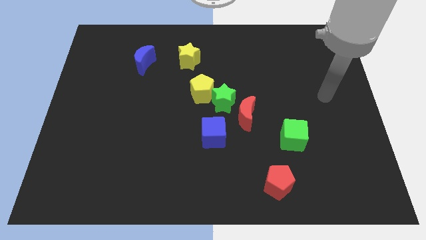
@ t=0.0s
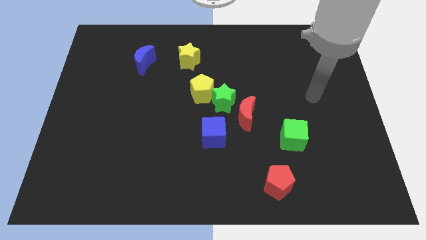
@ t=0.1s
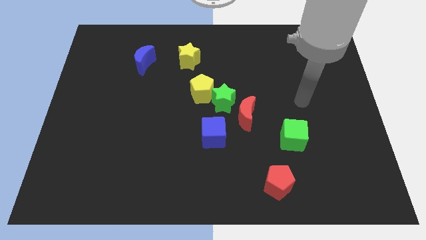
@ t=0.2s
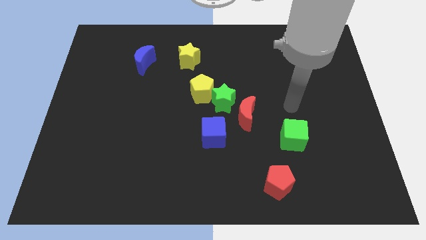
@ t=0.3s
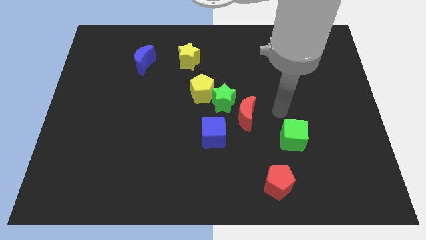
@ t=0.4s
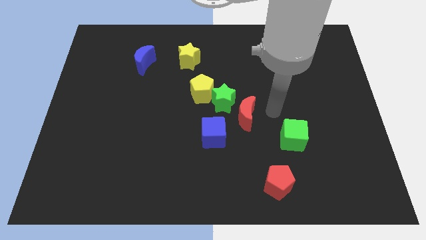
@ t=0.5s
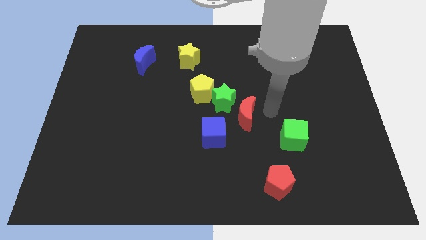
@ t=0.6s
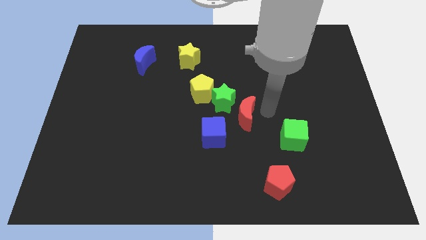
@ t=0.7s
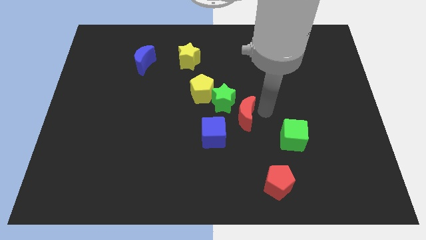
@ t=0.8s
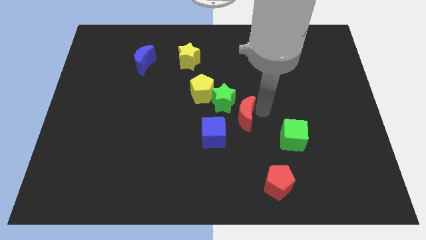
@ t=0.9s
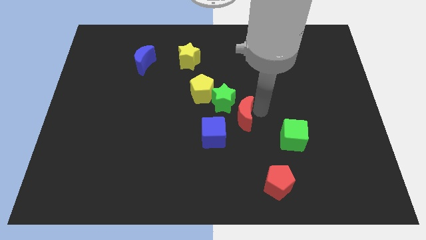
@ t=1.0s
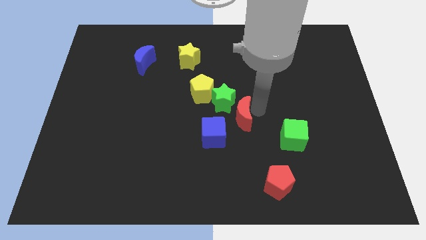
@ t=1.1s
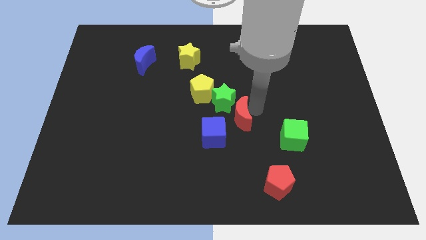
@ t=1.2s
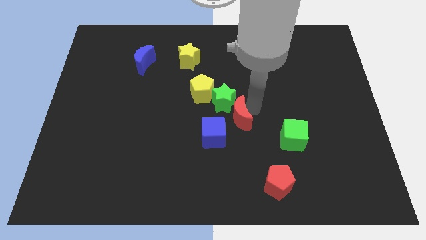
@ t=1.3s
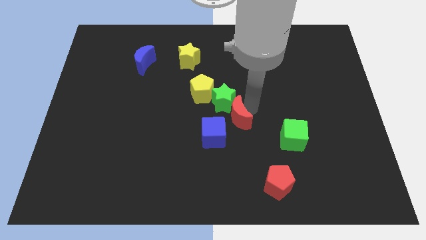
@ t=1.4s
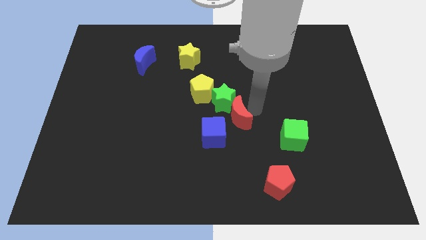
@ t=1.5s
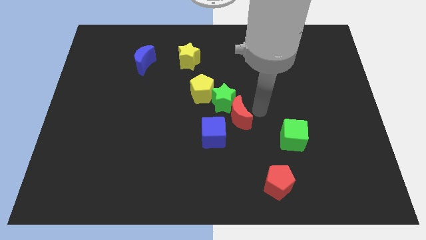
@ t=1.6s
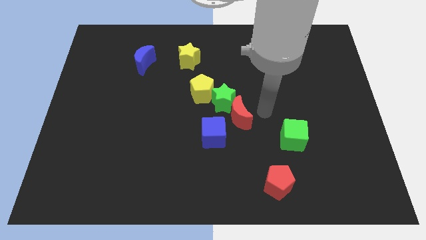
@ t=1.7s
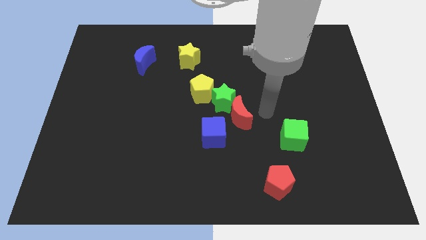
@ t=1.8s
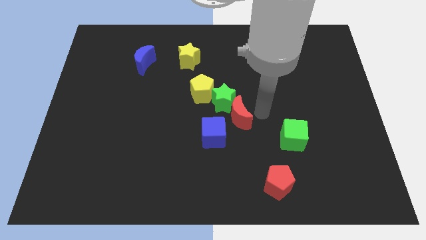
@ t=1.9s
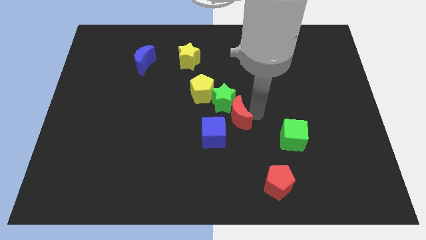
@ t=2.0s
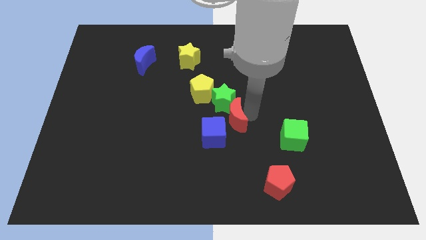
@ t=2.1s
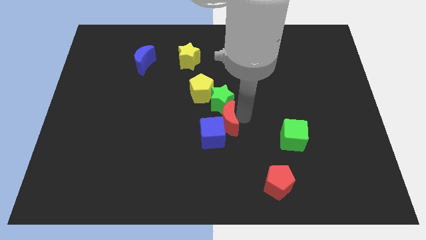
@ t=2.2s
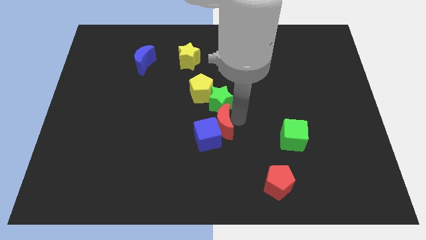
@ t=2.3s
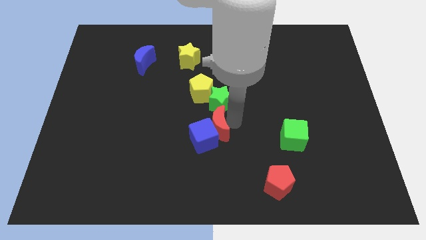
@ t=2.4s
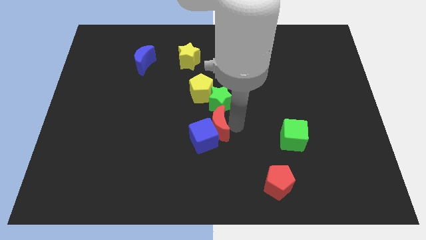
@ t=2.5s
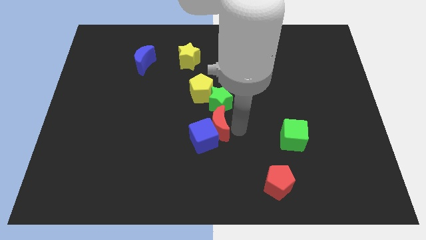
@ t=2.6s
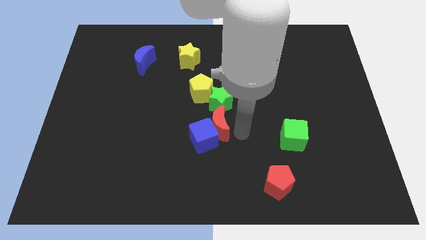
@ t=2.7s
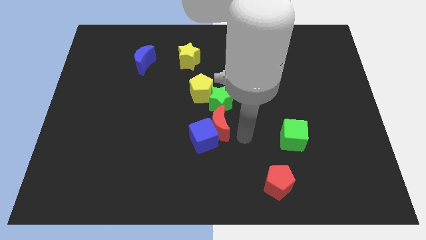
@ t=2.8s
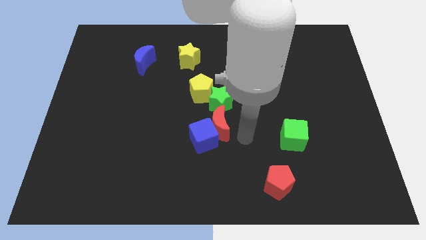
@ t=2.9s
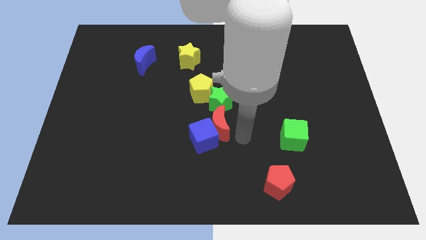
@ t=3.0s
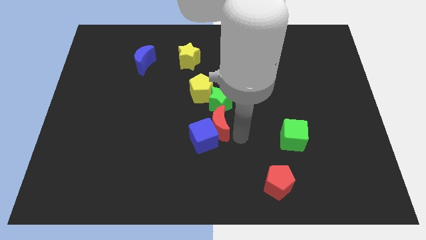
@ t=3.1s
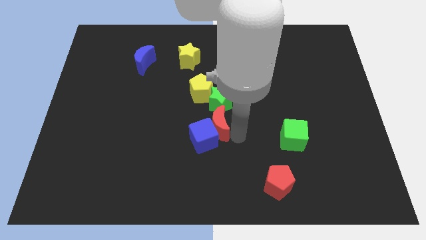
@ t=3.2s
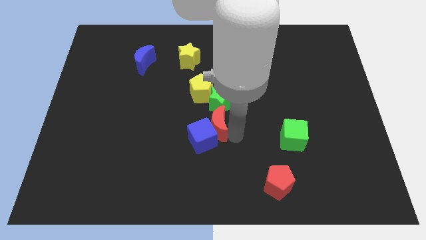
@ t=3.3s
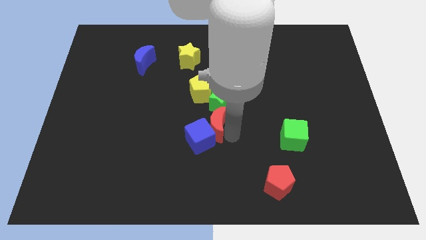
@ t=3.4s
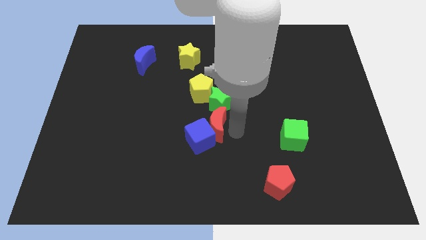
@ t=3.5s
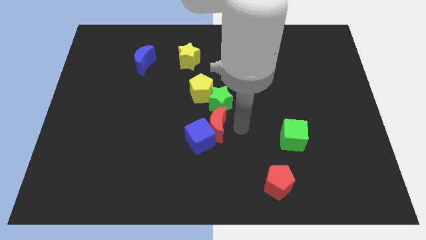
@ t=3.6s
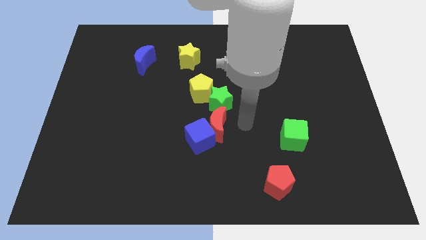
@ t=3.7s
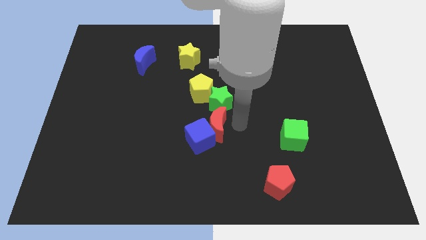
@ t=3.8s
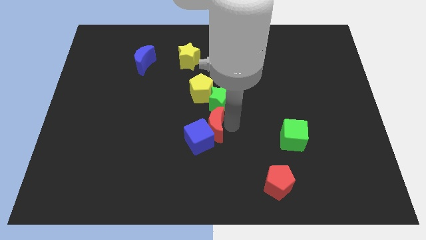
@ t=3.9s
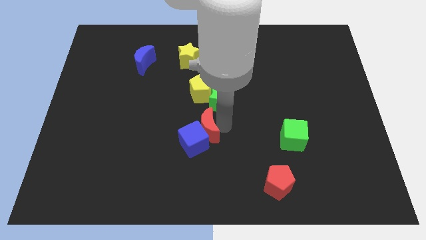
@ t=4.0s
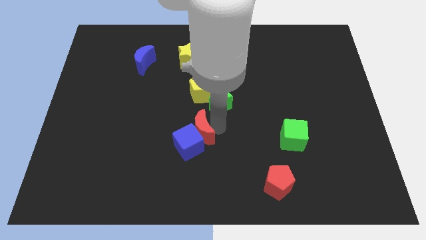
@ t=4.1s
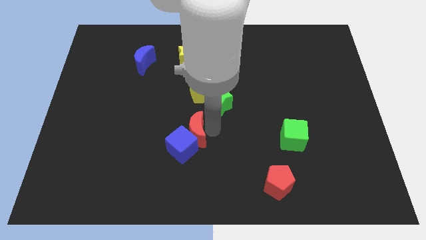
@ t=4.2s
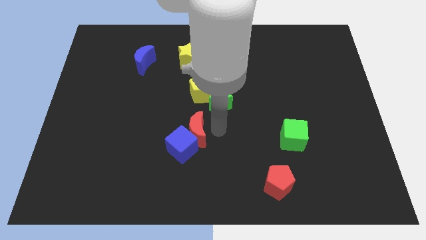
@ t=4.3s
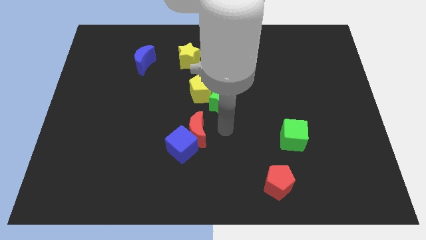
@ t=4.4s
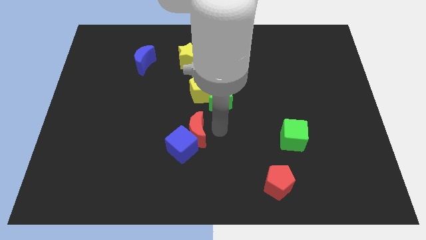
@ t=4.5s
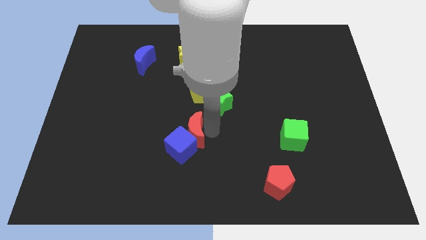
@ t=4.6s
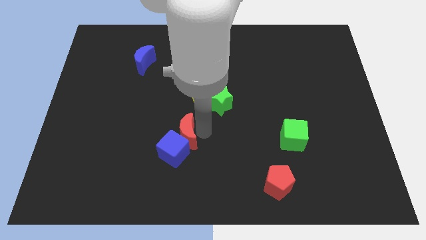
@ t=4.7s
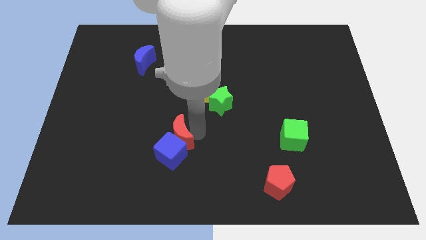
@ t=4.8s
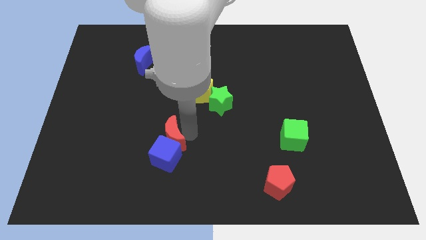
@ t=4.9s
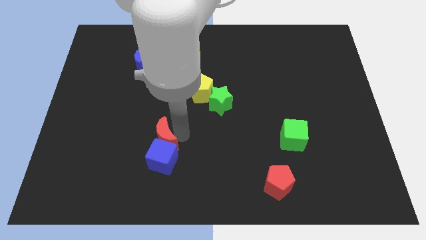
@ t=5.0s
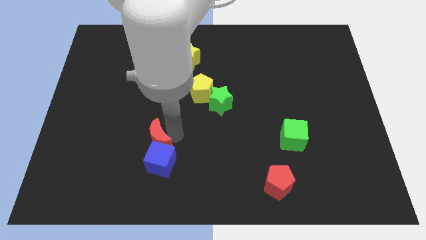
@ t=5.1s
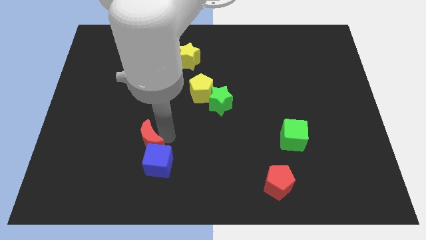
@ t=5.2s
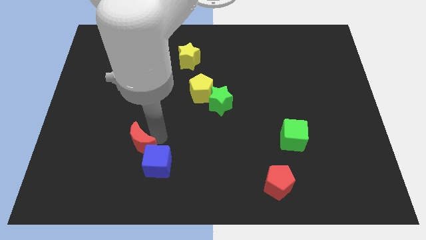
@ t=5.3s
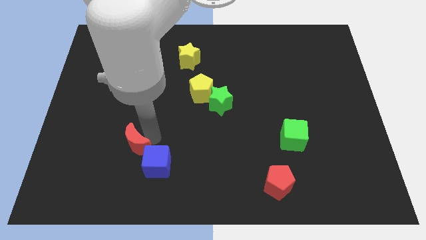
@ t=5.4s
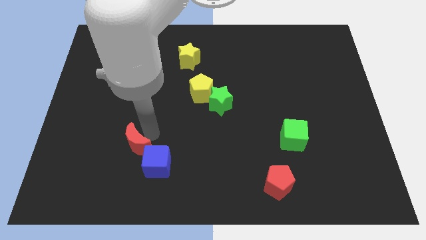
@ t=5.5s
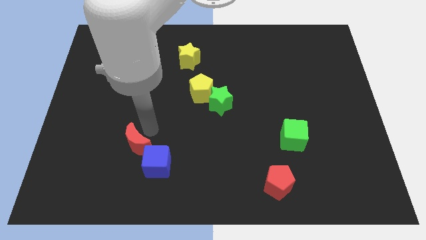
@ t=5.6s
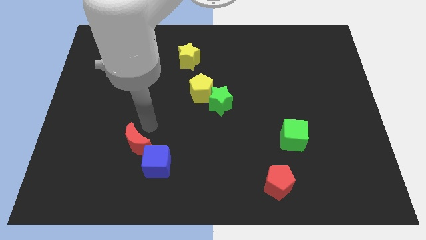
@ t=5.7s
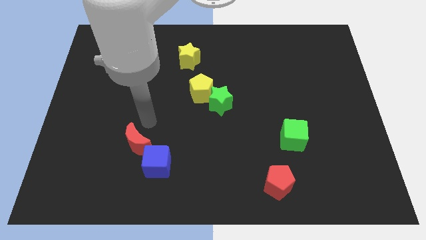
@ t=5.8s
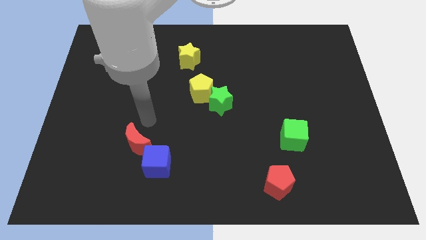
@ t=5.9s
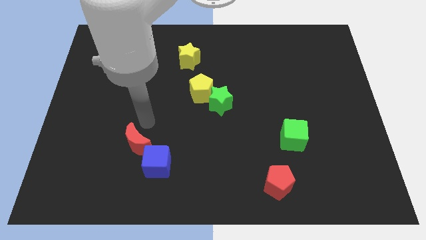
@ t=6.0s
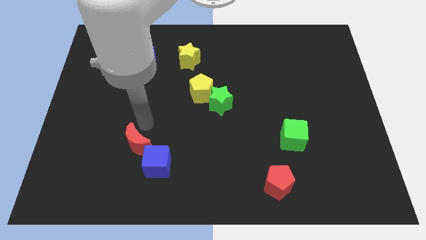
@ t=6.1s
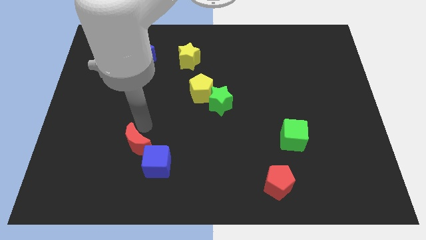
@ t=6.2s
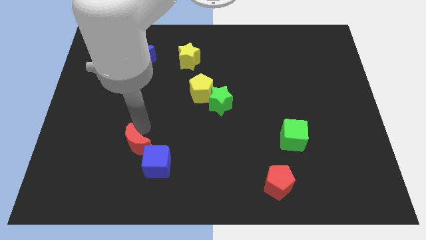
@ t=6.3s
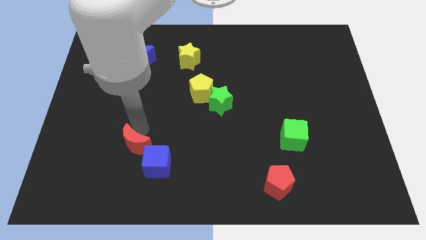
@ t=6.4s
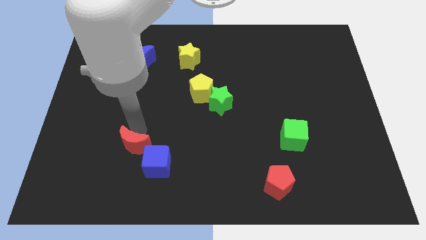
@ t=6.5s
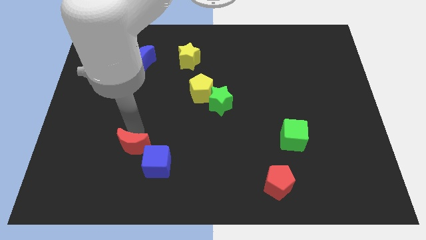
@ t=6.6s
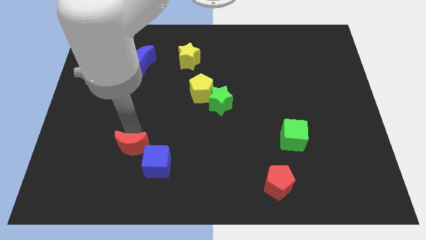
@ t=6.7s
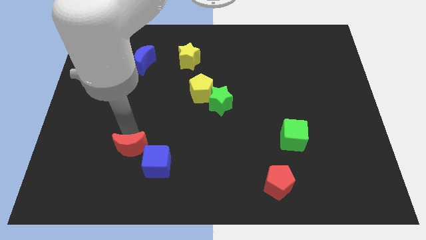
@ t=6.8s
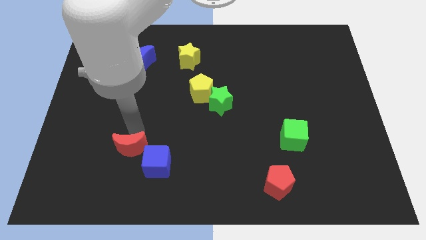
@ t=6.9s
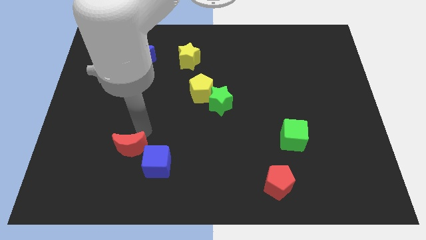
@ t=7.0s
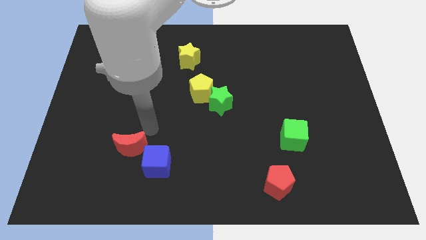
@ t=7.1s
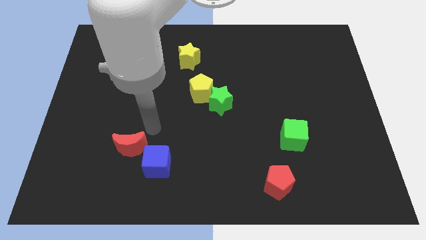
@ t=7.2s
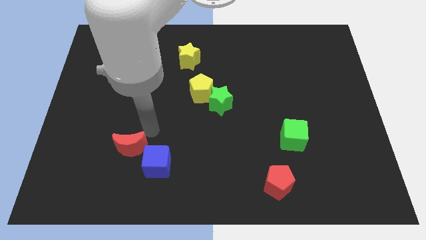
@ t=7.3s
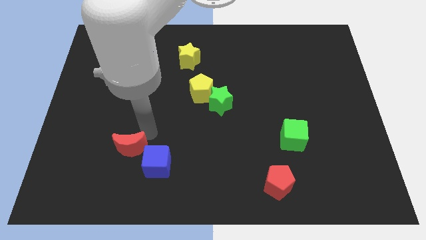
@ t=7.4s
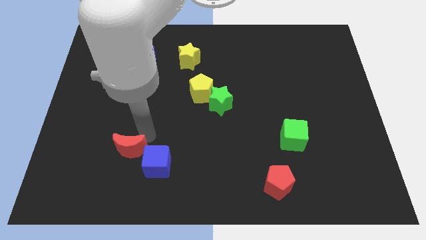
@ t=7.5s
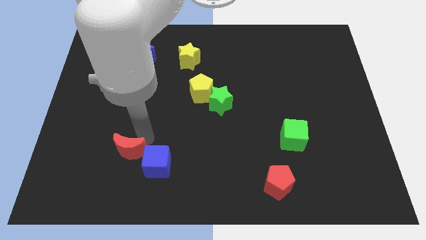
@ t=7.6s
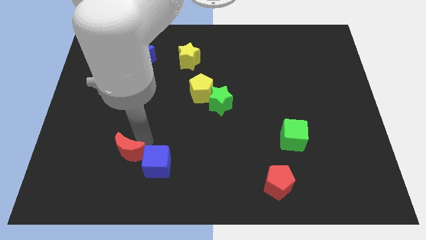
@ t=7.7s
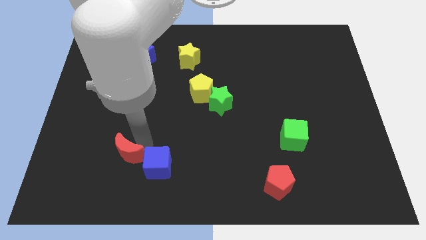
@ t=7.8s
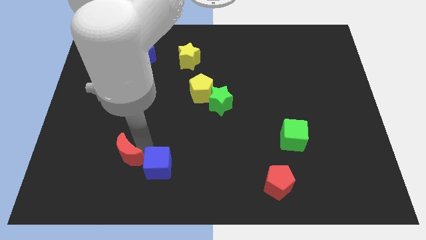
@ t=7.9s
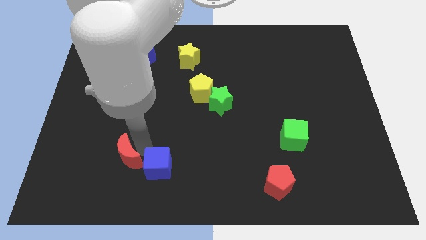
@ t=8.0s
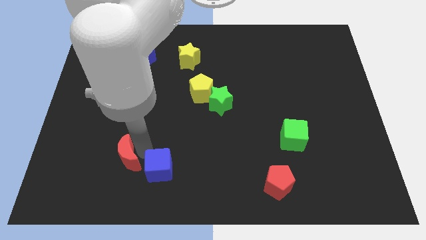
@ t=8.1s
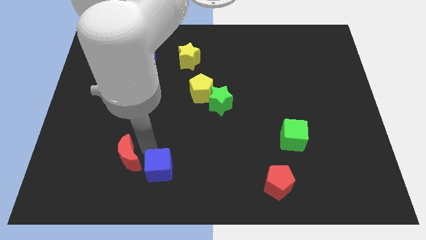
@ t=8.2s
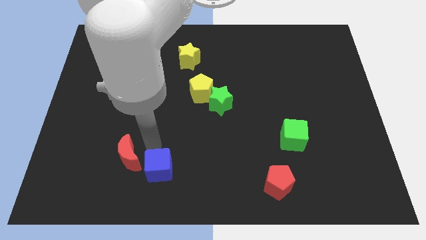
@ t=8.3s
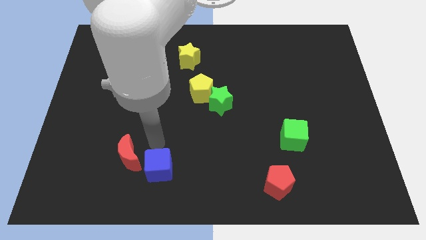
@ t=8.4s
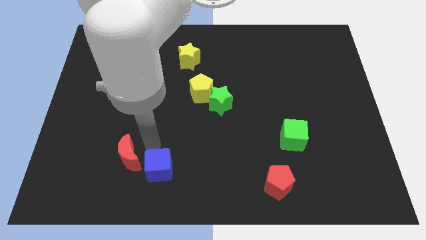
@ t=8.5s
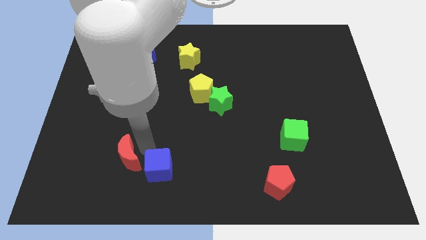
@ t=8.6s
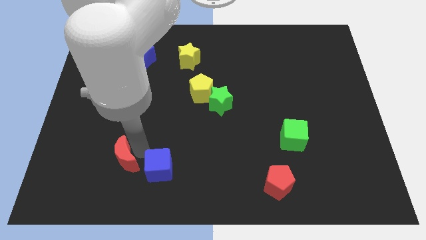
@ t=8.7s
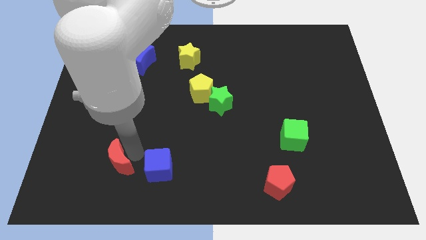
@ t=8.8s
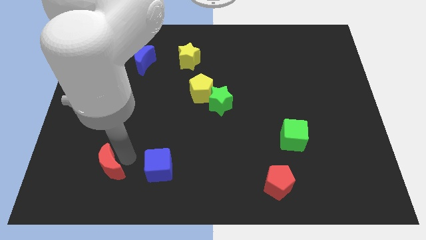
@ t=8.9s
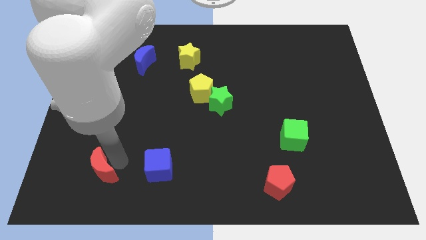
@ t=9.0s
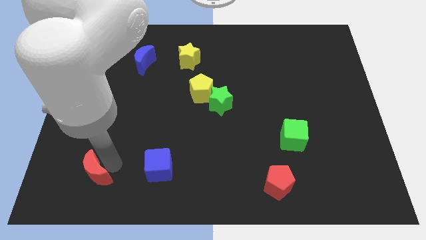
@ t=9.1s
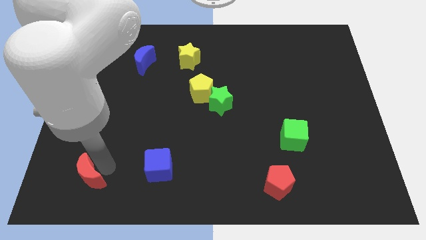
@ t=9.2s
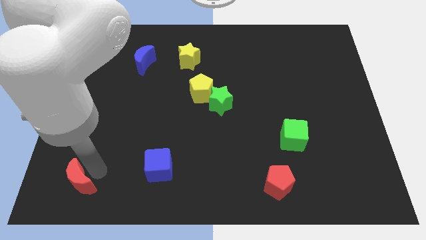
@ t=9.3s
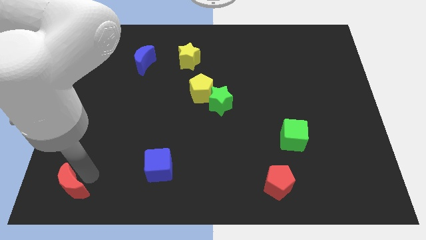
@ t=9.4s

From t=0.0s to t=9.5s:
slide the red moon to the bottom left of the board
